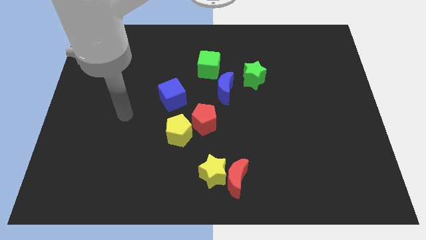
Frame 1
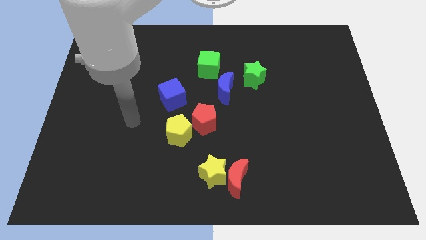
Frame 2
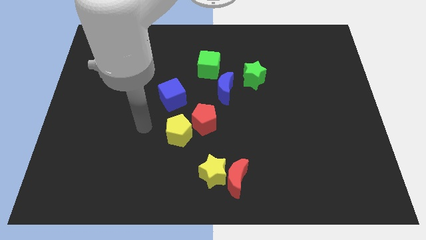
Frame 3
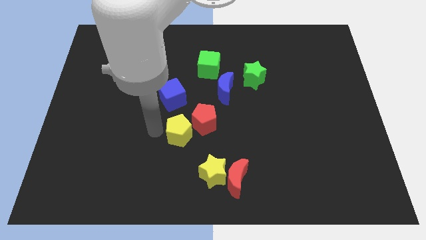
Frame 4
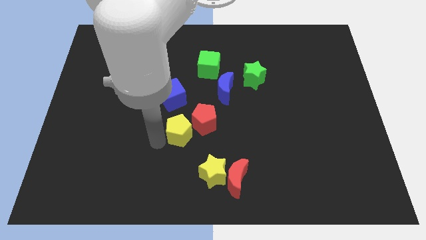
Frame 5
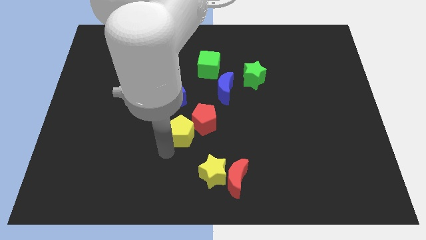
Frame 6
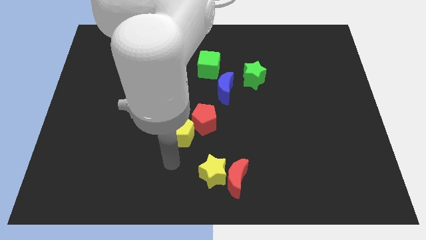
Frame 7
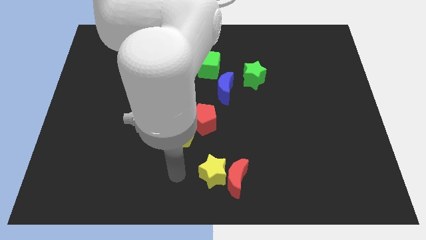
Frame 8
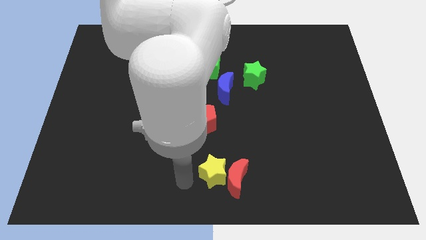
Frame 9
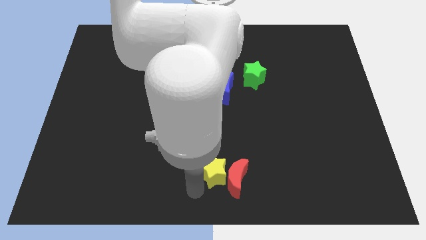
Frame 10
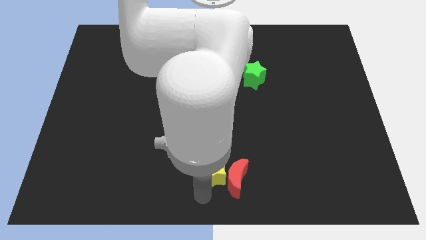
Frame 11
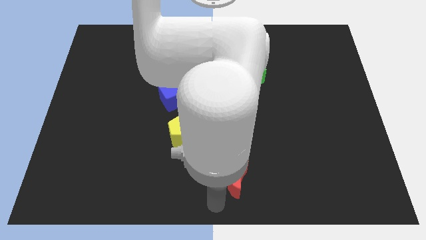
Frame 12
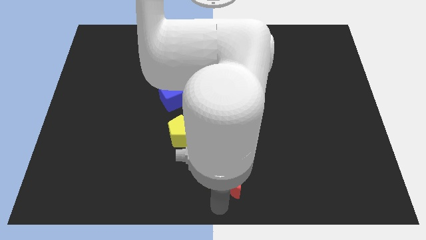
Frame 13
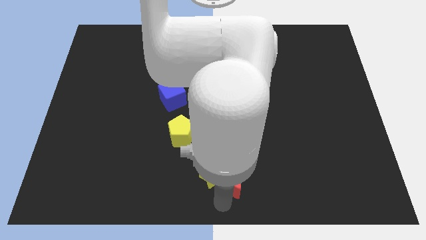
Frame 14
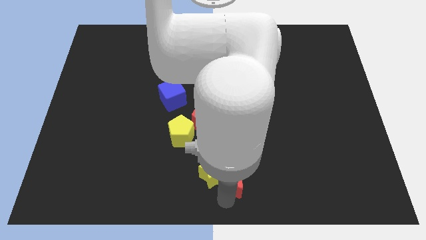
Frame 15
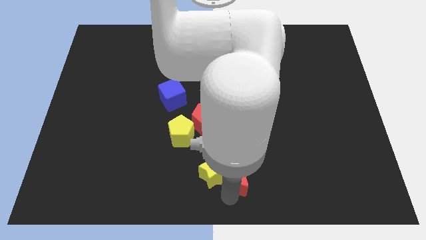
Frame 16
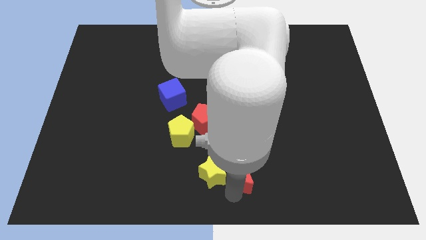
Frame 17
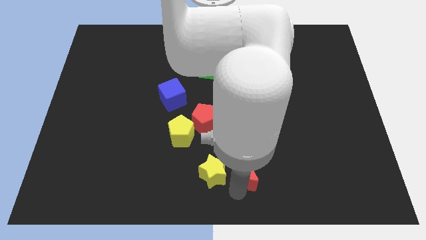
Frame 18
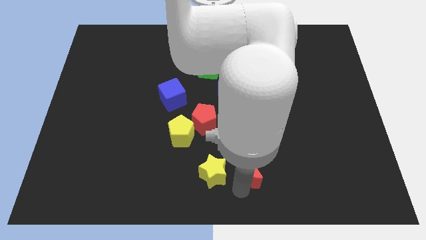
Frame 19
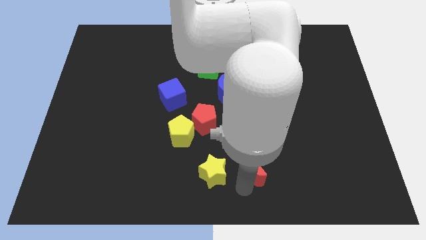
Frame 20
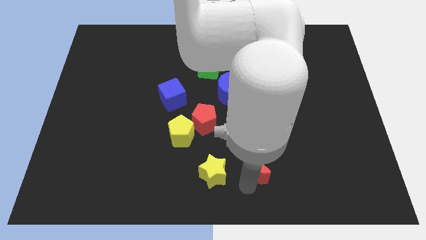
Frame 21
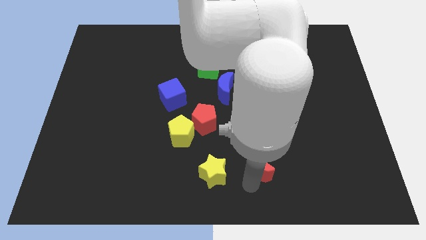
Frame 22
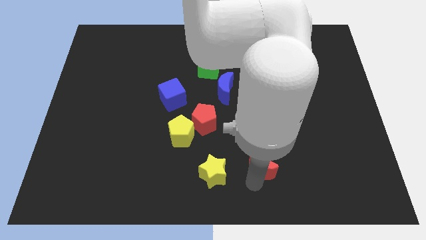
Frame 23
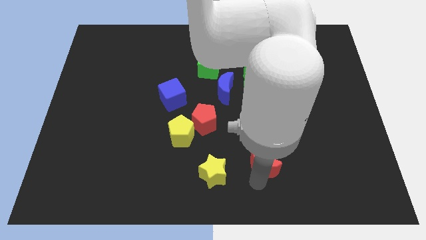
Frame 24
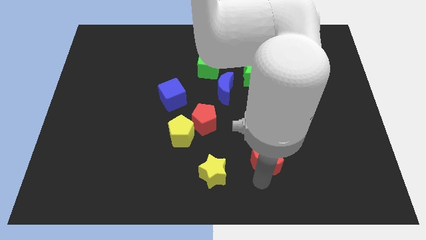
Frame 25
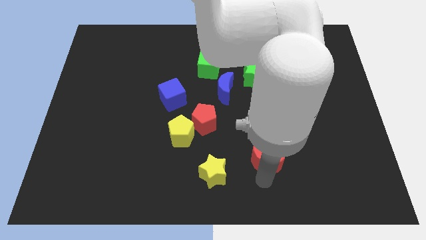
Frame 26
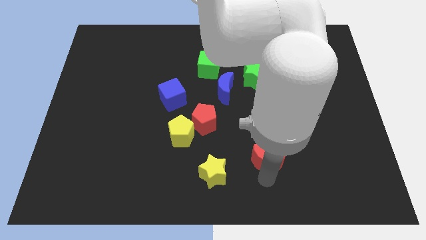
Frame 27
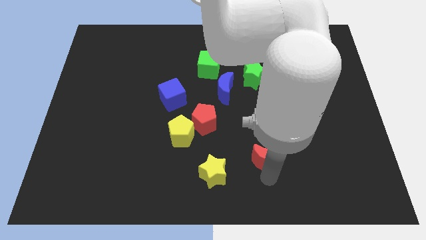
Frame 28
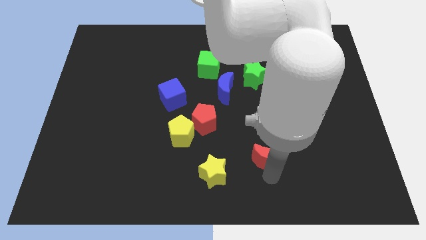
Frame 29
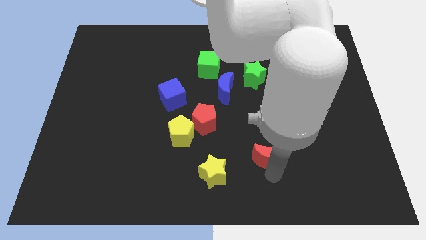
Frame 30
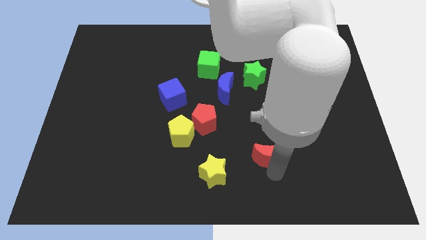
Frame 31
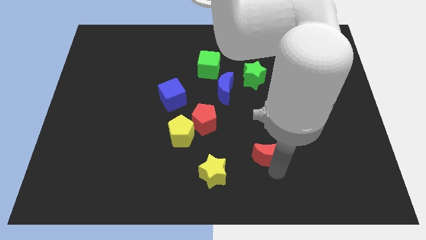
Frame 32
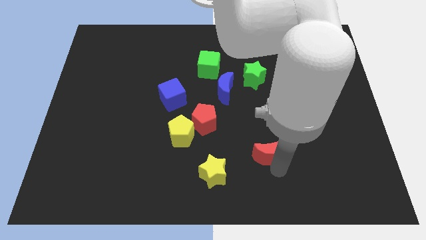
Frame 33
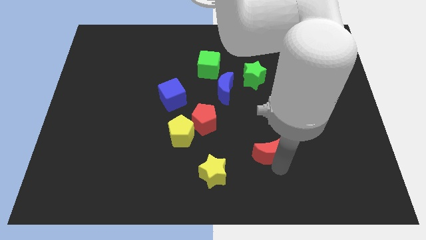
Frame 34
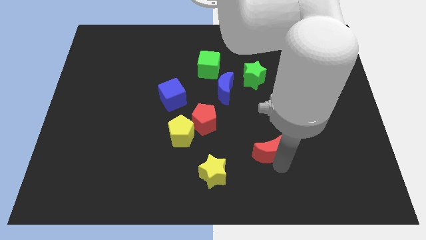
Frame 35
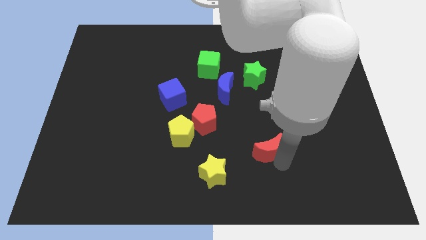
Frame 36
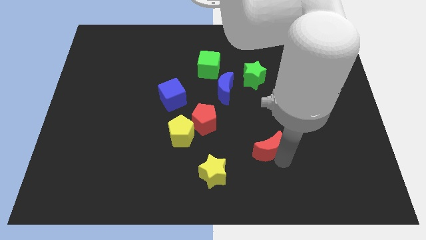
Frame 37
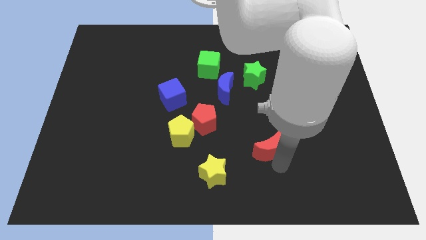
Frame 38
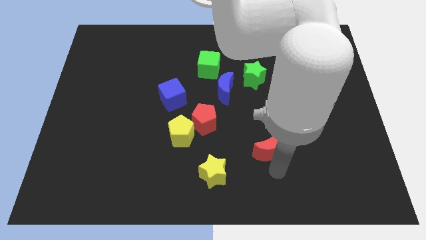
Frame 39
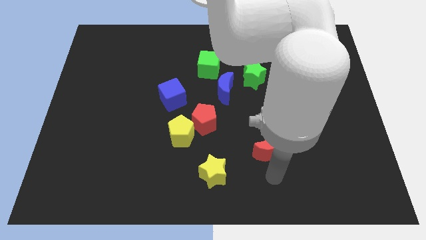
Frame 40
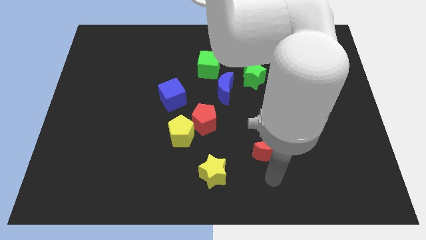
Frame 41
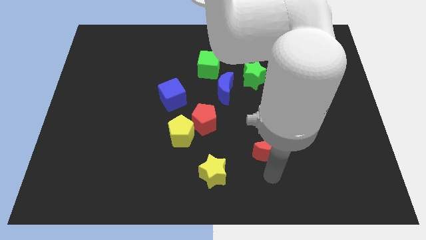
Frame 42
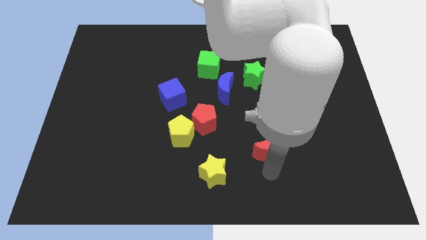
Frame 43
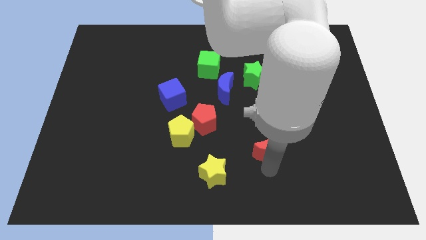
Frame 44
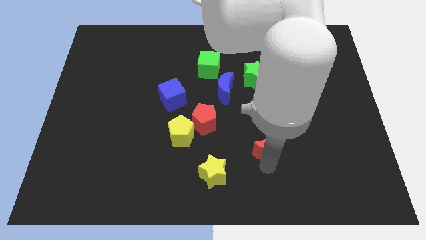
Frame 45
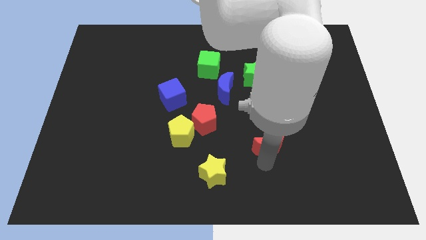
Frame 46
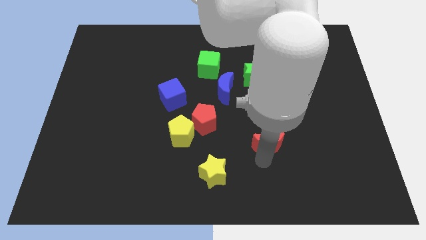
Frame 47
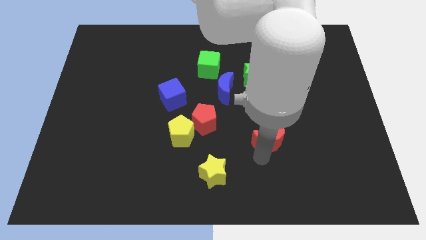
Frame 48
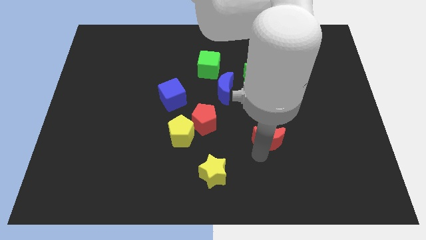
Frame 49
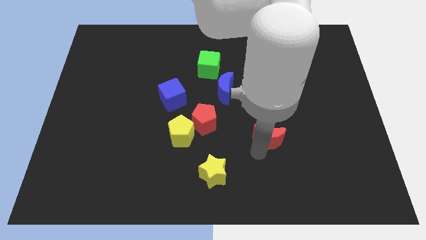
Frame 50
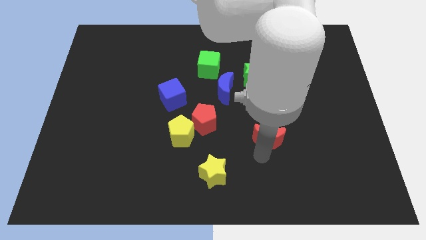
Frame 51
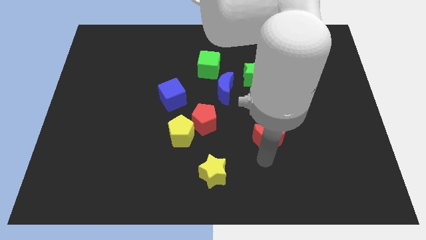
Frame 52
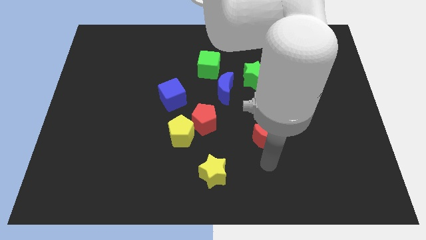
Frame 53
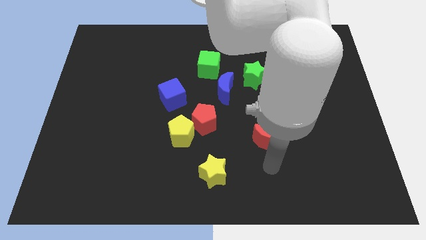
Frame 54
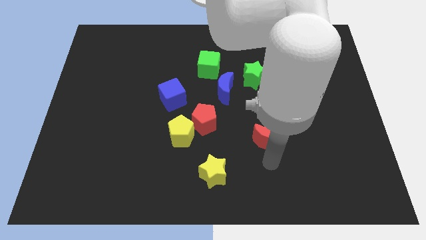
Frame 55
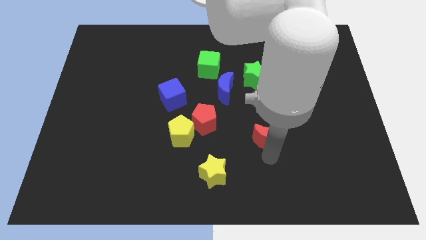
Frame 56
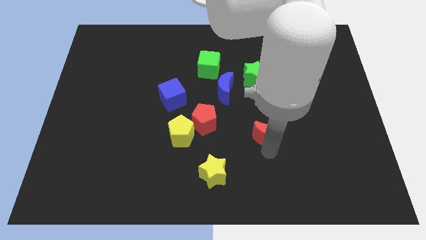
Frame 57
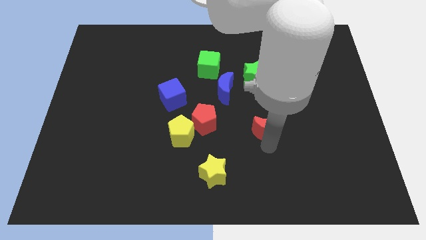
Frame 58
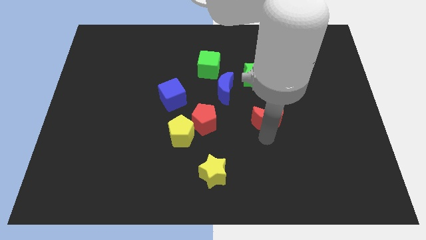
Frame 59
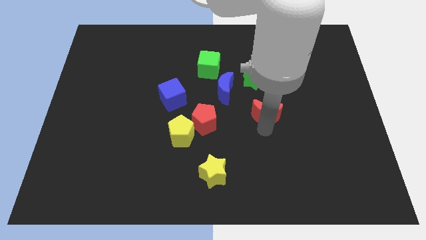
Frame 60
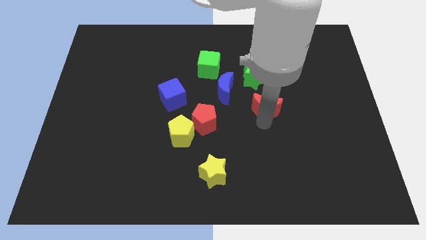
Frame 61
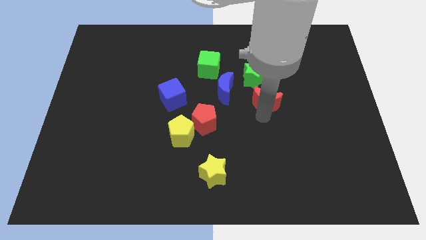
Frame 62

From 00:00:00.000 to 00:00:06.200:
push the red moon to the bottom right of the green star

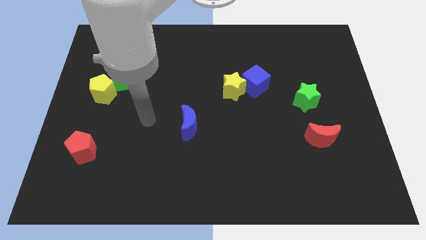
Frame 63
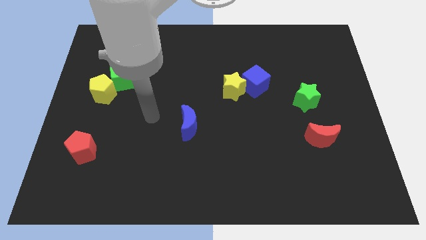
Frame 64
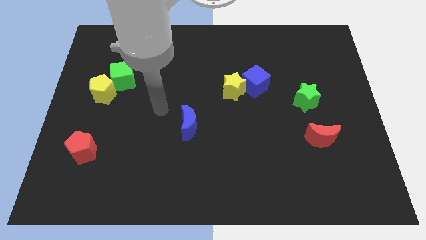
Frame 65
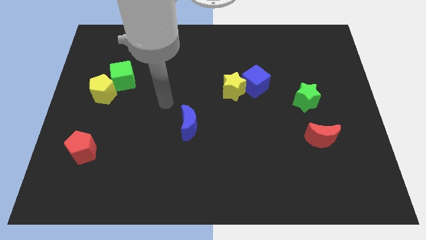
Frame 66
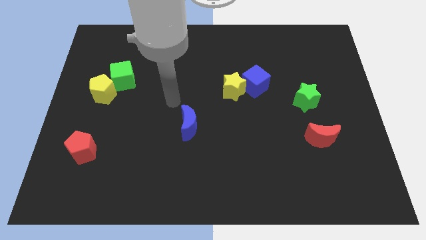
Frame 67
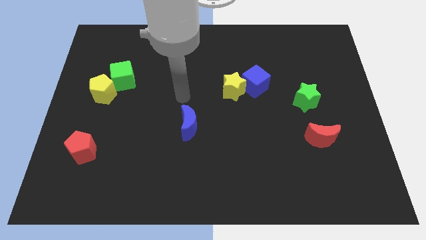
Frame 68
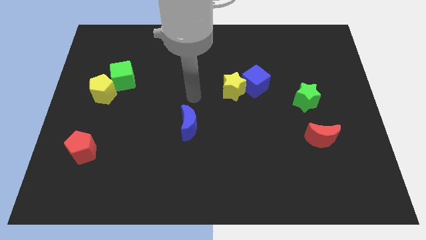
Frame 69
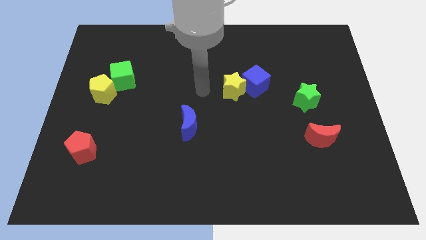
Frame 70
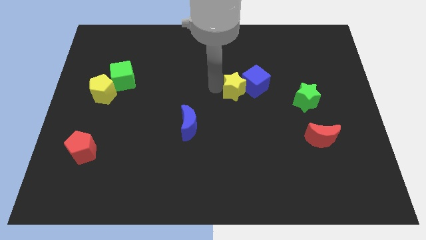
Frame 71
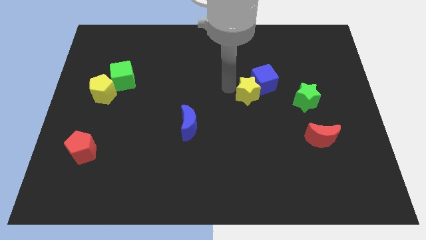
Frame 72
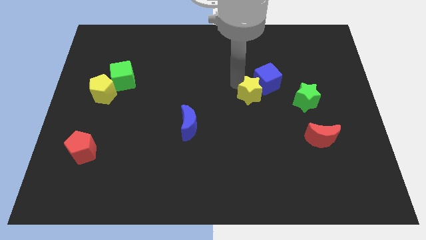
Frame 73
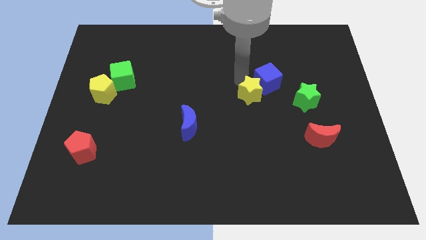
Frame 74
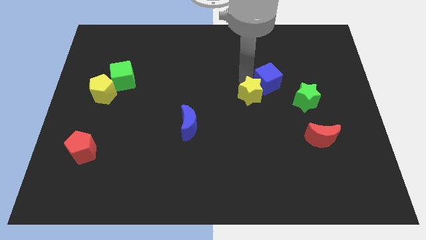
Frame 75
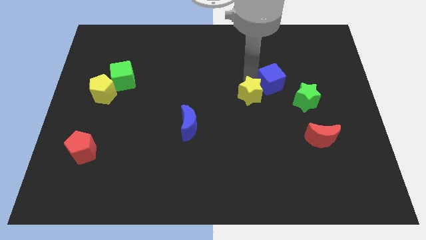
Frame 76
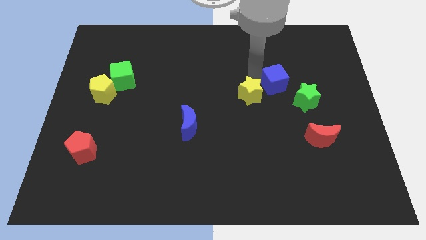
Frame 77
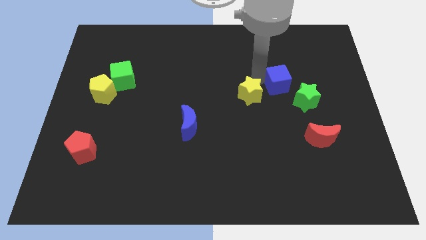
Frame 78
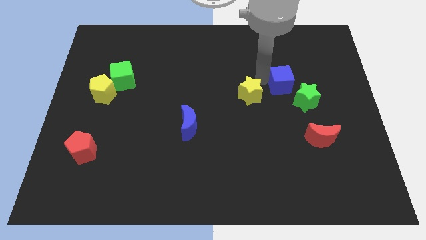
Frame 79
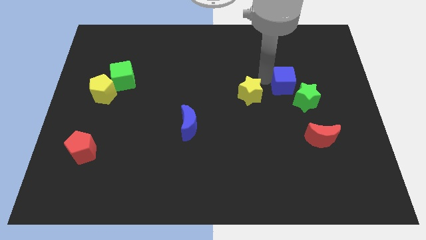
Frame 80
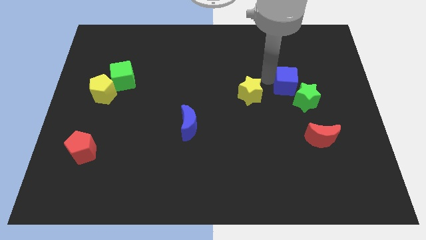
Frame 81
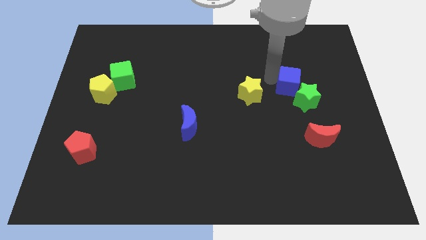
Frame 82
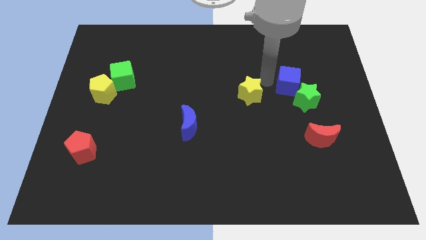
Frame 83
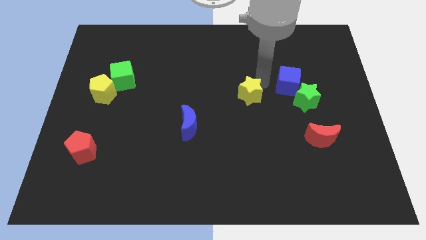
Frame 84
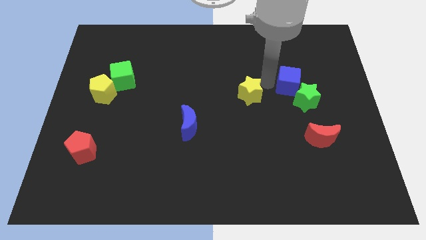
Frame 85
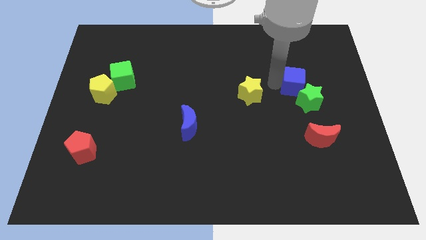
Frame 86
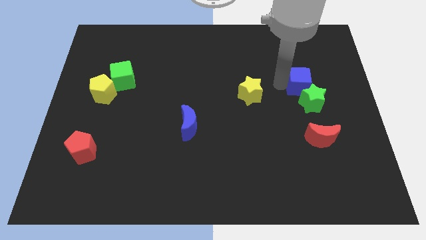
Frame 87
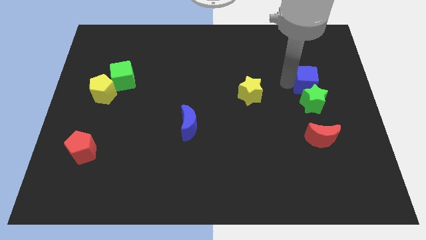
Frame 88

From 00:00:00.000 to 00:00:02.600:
put the blue cube to the top side of the red moon
